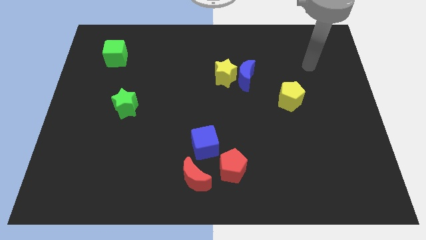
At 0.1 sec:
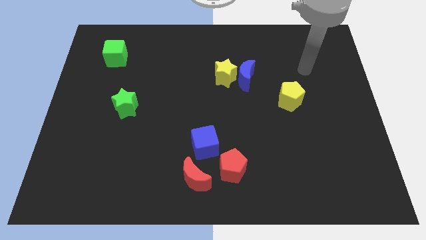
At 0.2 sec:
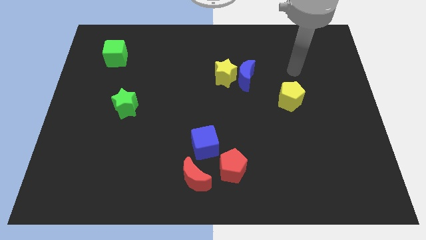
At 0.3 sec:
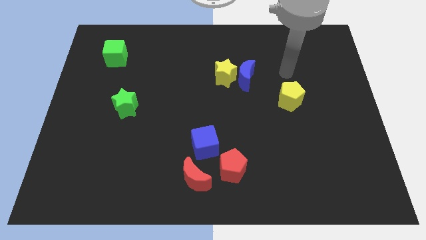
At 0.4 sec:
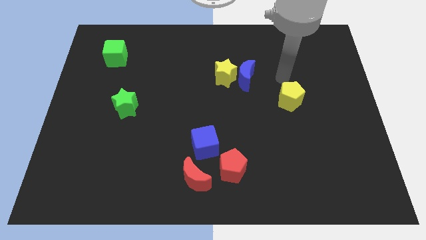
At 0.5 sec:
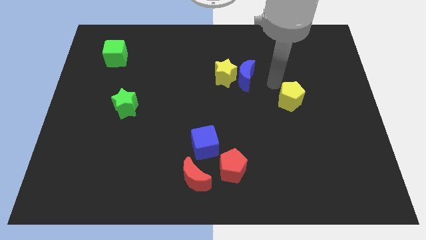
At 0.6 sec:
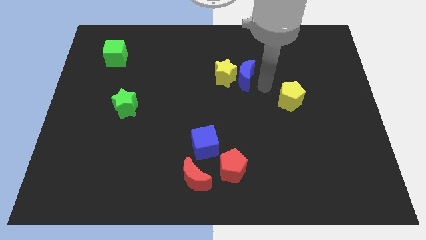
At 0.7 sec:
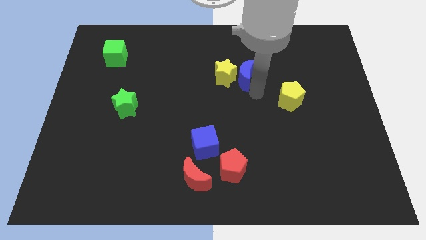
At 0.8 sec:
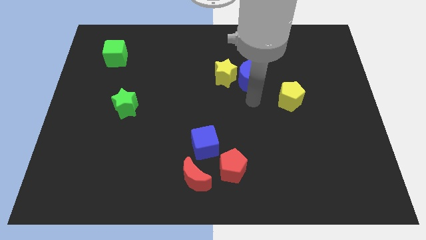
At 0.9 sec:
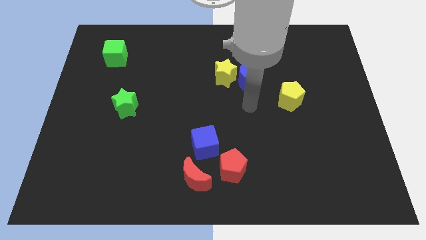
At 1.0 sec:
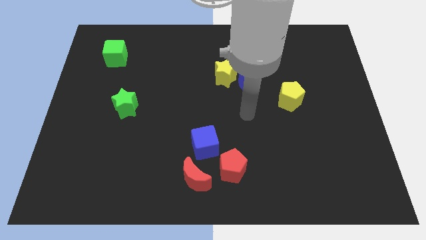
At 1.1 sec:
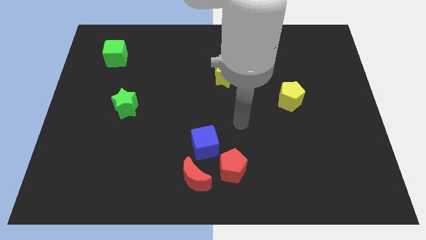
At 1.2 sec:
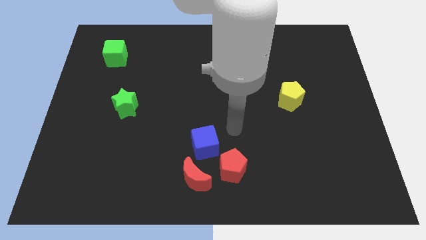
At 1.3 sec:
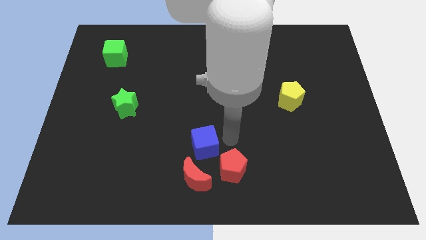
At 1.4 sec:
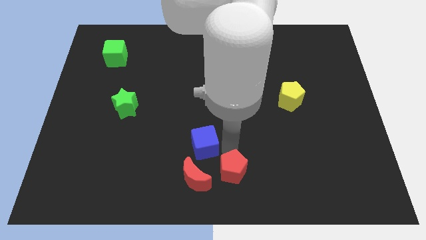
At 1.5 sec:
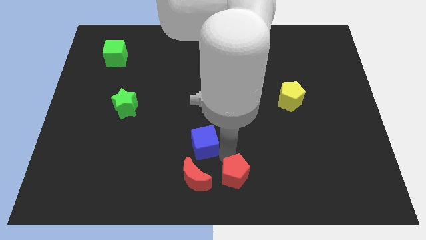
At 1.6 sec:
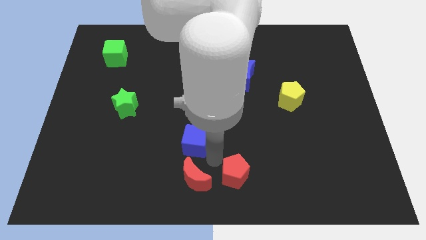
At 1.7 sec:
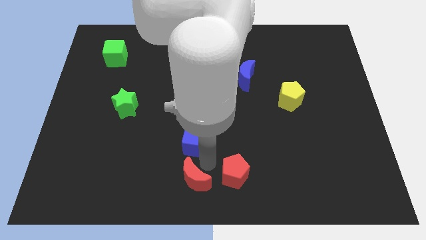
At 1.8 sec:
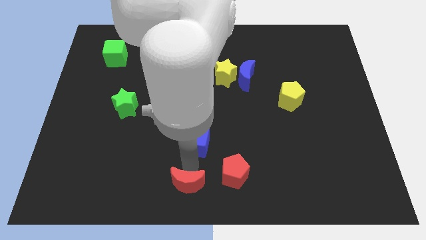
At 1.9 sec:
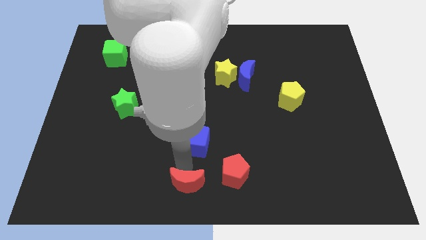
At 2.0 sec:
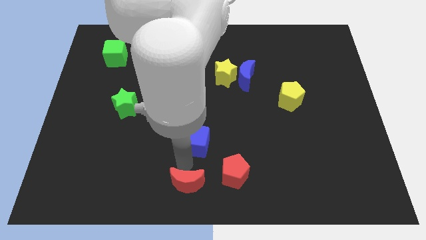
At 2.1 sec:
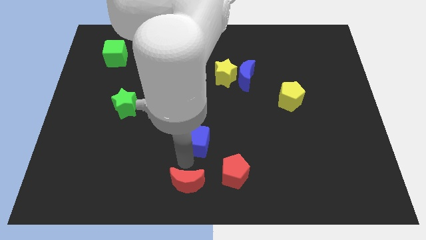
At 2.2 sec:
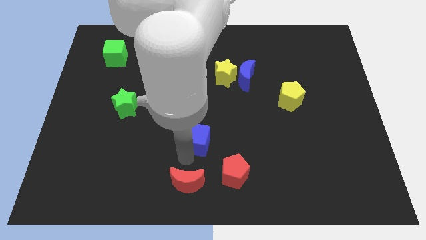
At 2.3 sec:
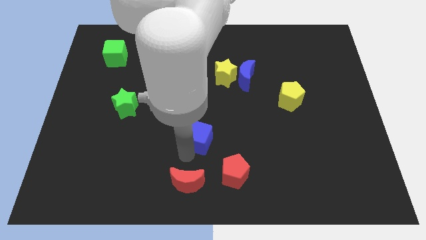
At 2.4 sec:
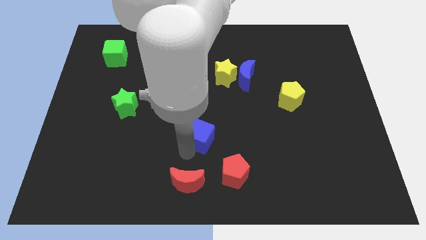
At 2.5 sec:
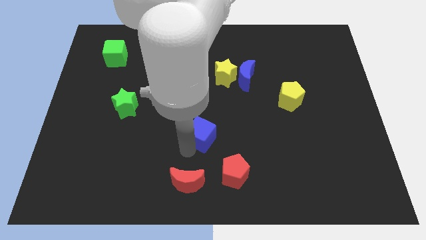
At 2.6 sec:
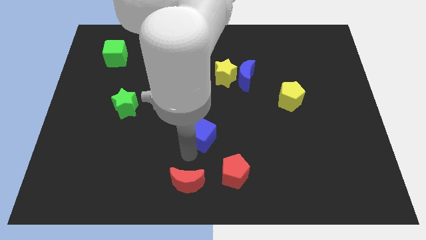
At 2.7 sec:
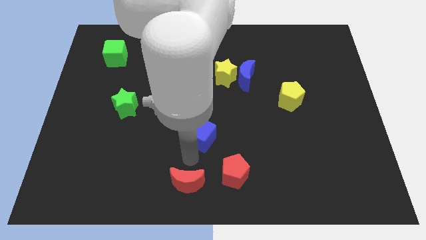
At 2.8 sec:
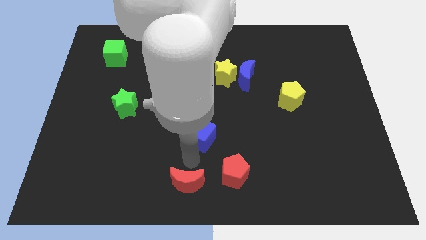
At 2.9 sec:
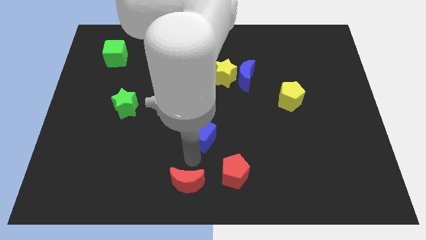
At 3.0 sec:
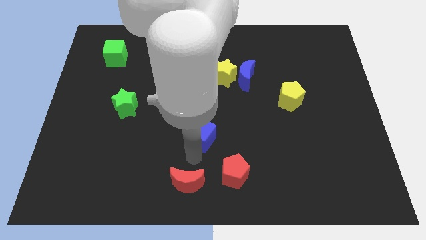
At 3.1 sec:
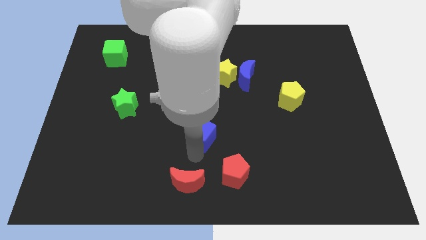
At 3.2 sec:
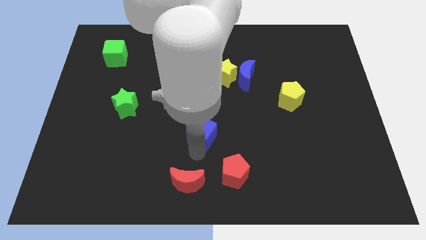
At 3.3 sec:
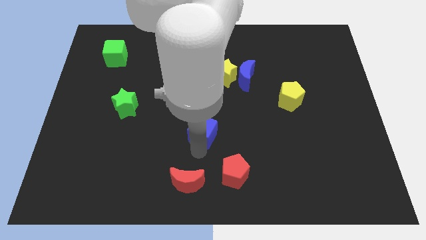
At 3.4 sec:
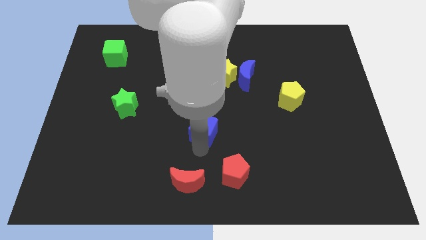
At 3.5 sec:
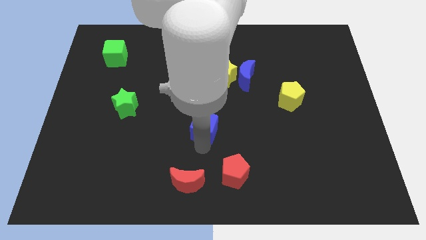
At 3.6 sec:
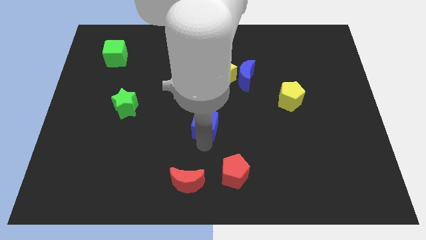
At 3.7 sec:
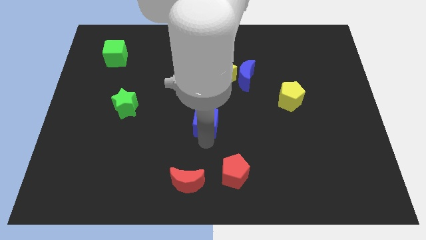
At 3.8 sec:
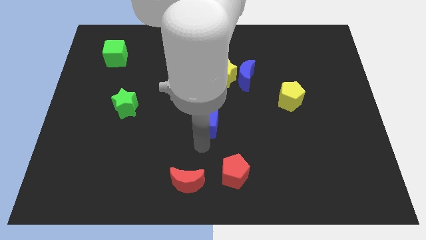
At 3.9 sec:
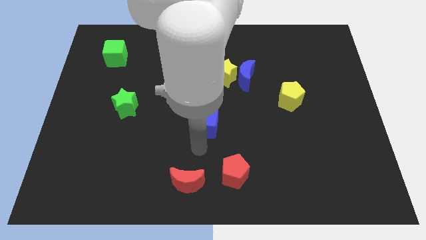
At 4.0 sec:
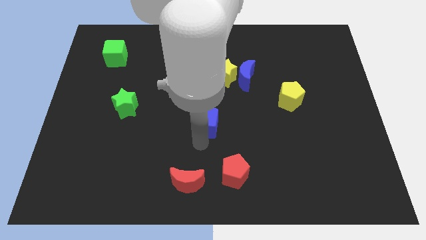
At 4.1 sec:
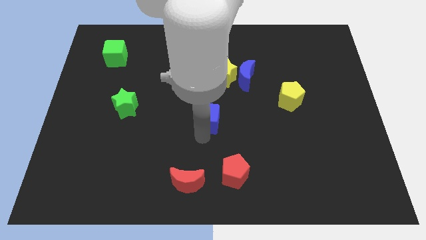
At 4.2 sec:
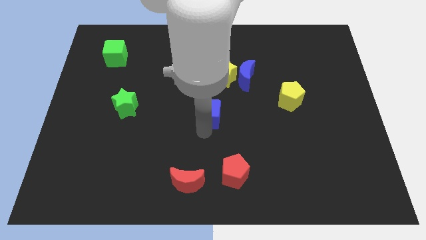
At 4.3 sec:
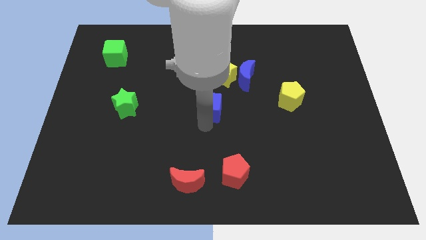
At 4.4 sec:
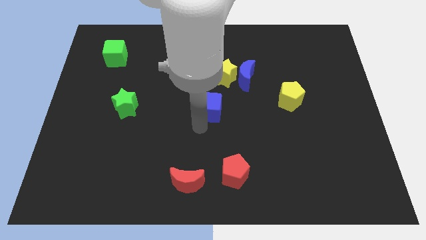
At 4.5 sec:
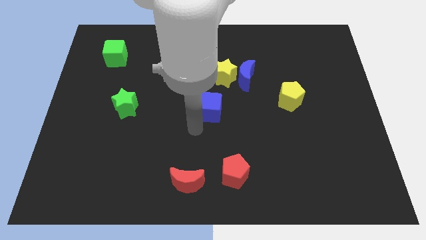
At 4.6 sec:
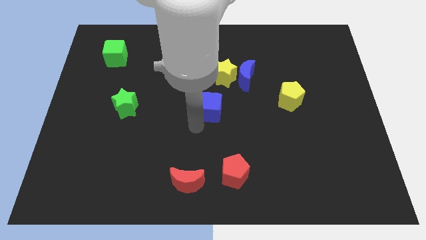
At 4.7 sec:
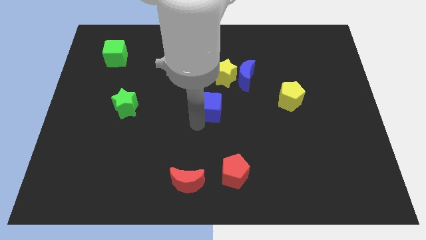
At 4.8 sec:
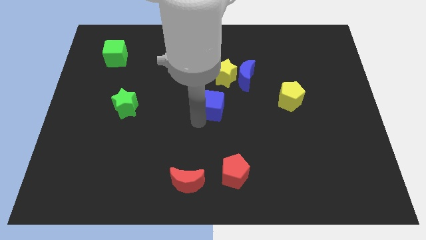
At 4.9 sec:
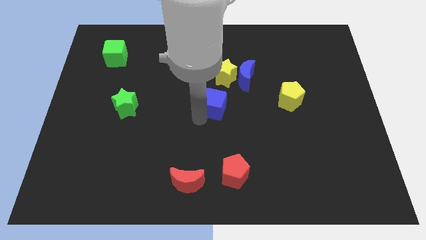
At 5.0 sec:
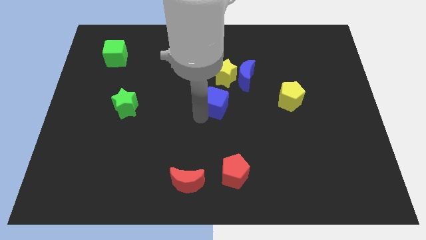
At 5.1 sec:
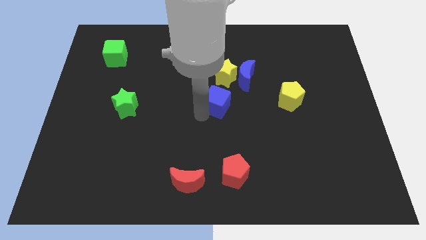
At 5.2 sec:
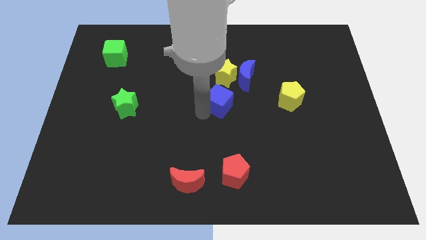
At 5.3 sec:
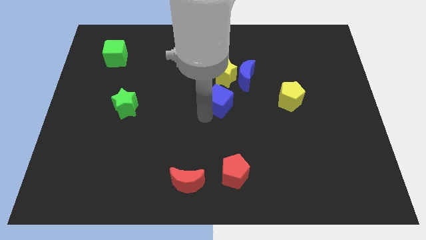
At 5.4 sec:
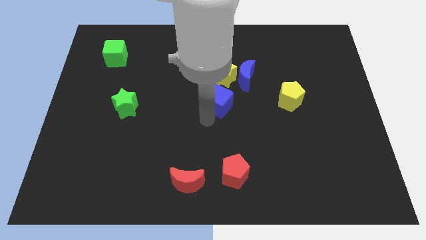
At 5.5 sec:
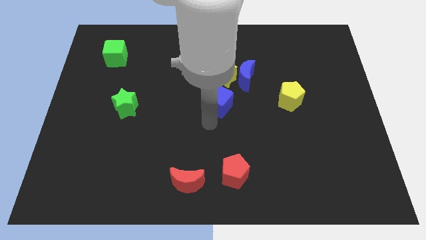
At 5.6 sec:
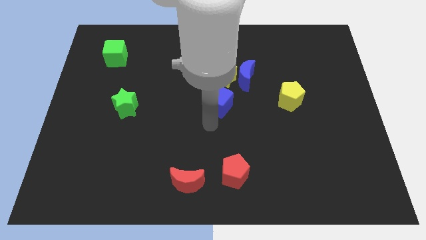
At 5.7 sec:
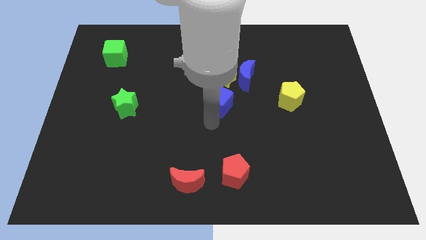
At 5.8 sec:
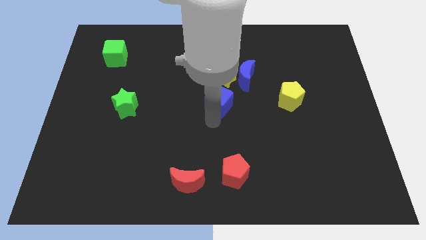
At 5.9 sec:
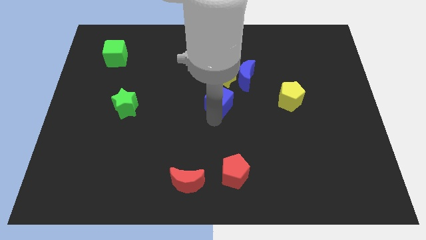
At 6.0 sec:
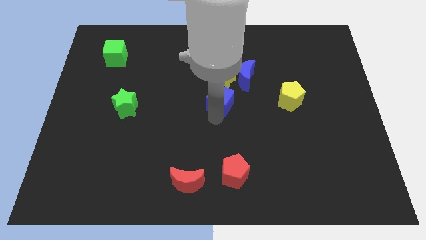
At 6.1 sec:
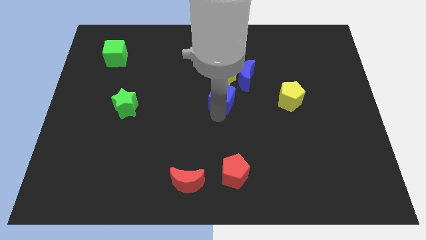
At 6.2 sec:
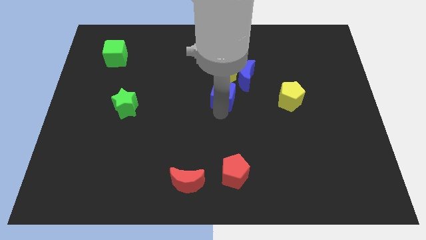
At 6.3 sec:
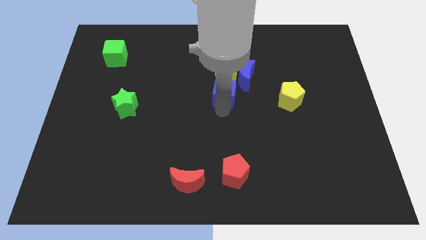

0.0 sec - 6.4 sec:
move the blue cube close to the yellow star

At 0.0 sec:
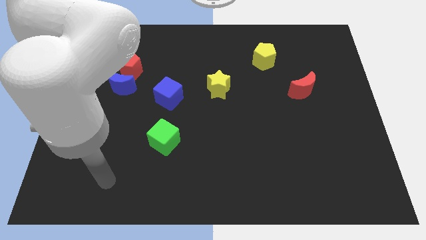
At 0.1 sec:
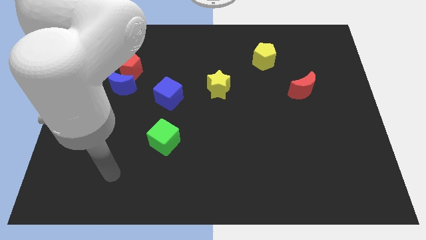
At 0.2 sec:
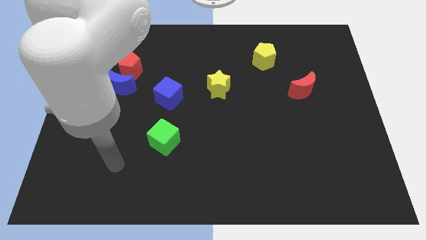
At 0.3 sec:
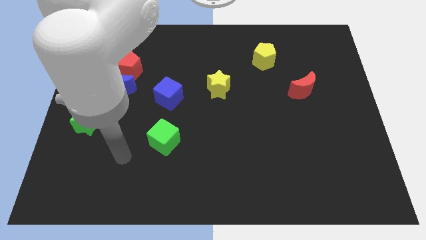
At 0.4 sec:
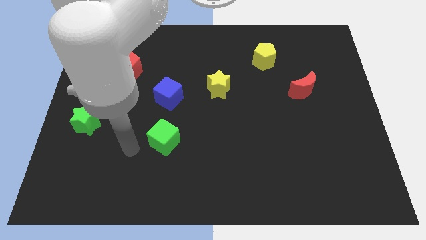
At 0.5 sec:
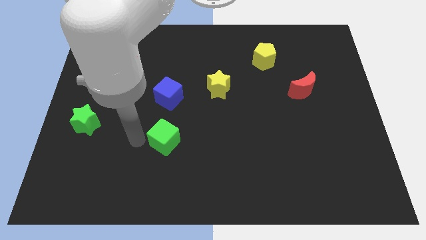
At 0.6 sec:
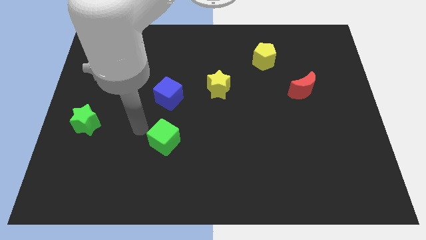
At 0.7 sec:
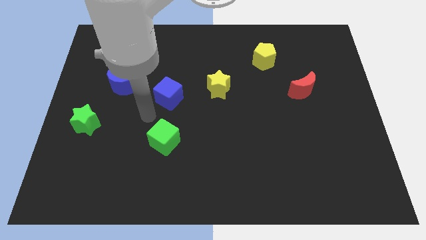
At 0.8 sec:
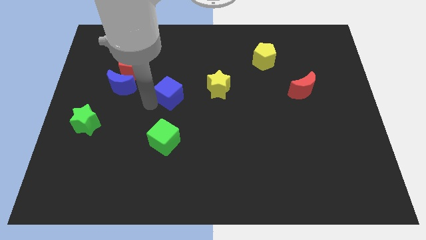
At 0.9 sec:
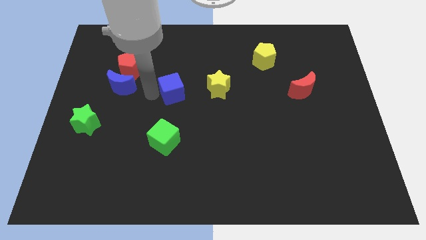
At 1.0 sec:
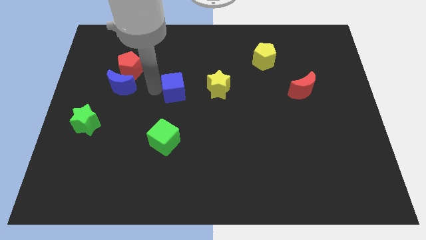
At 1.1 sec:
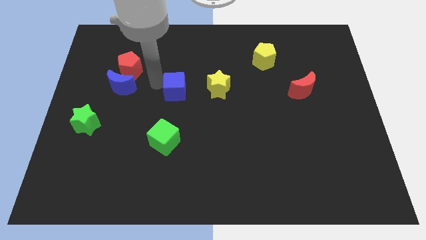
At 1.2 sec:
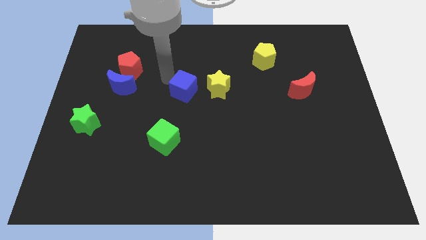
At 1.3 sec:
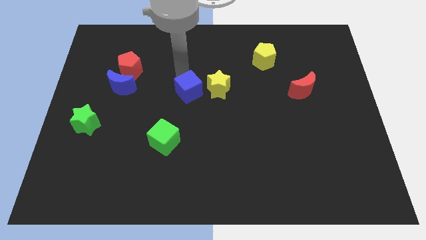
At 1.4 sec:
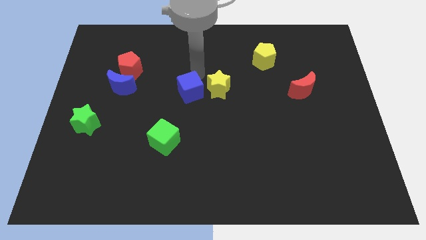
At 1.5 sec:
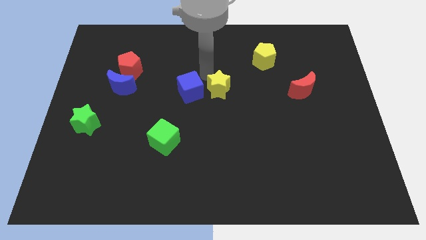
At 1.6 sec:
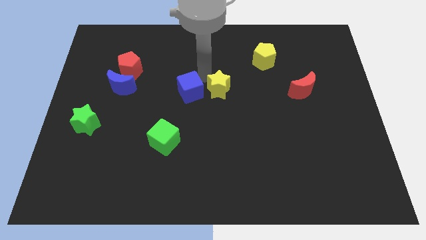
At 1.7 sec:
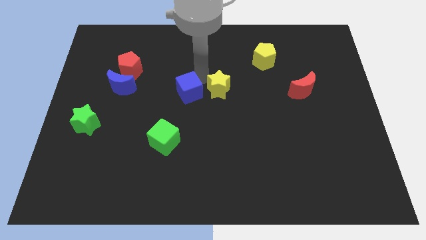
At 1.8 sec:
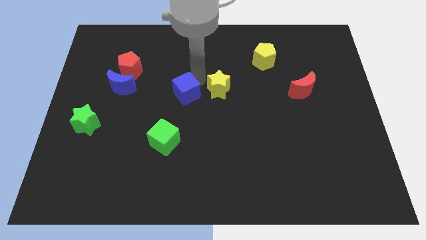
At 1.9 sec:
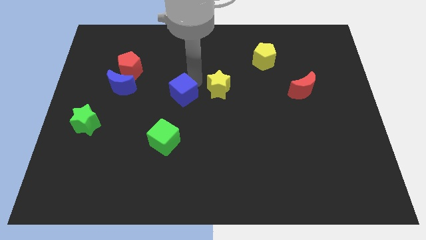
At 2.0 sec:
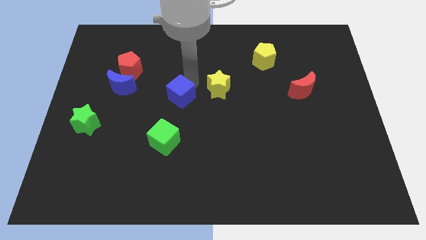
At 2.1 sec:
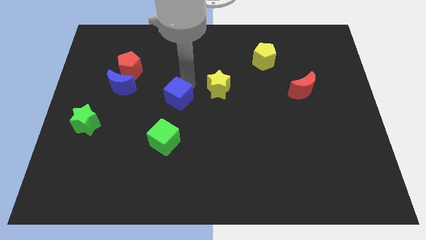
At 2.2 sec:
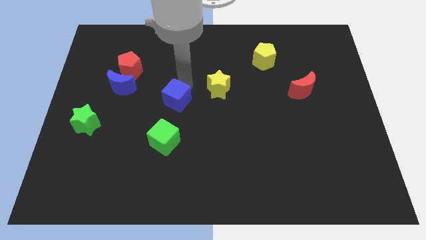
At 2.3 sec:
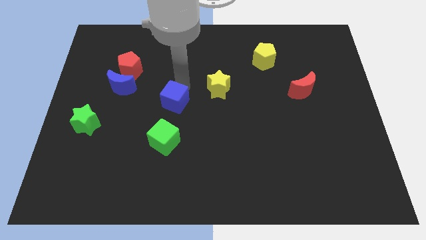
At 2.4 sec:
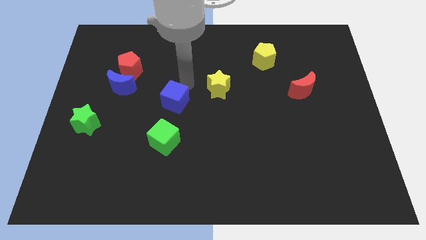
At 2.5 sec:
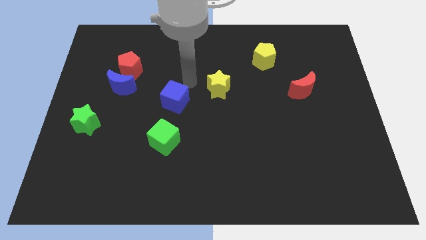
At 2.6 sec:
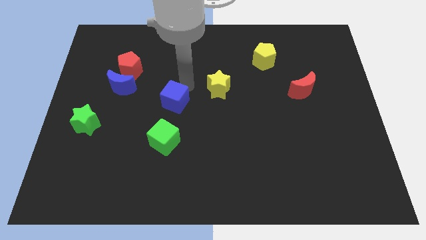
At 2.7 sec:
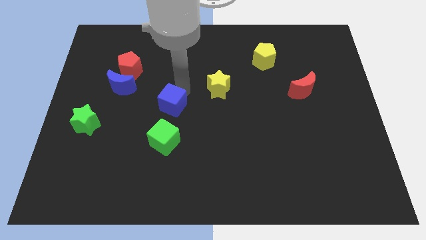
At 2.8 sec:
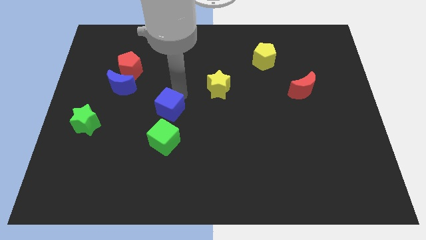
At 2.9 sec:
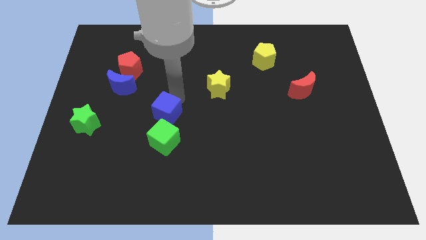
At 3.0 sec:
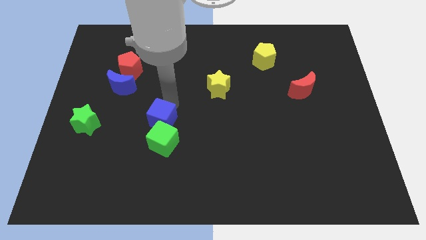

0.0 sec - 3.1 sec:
push the blue cube next to the green cube
